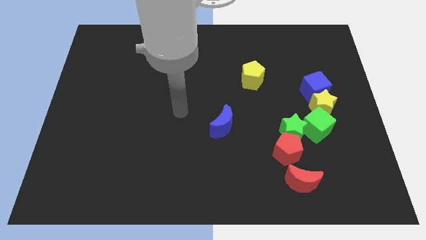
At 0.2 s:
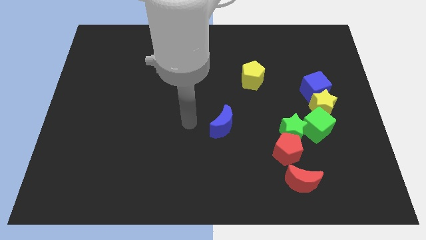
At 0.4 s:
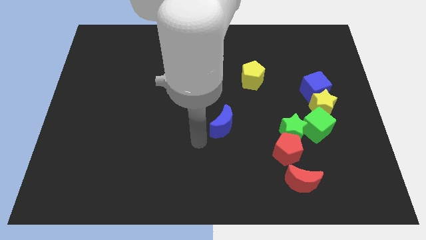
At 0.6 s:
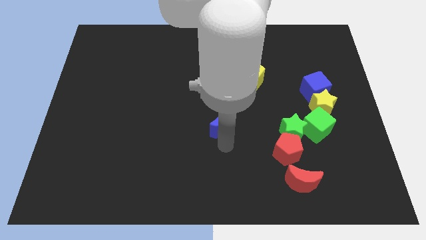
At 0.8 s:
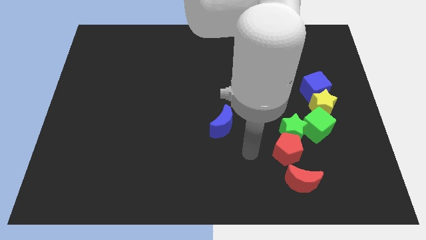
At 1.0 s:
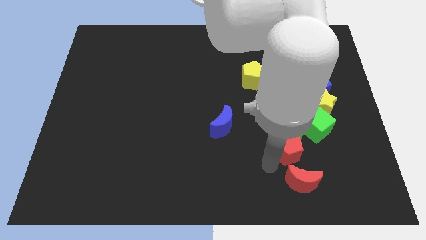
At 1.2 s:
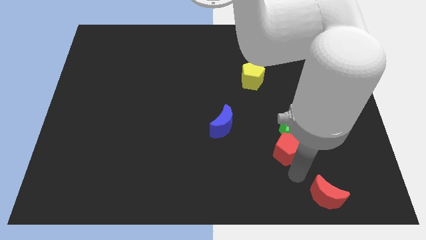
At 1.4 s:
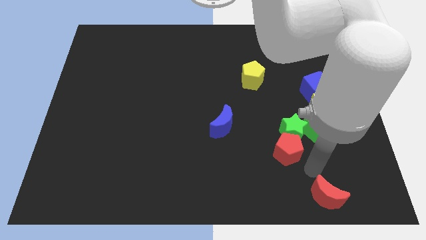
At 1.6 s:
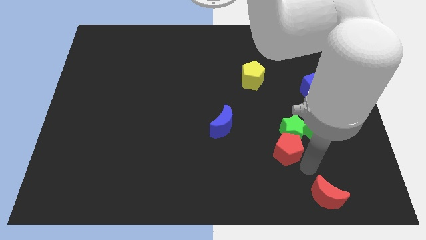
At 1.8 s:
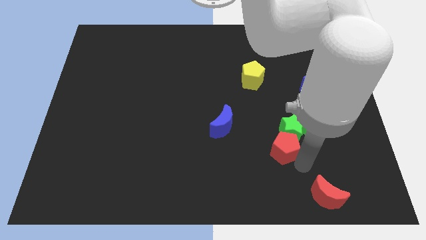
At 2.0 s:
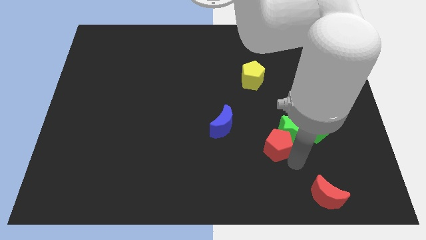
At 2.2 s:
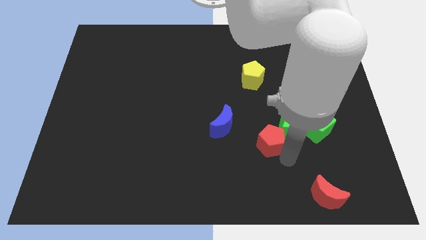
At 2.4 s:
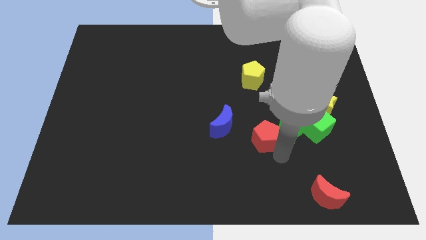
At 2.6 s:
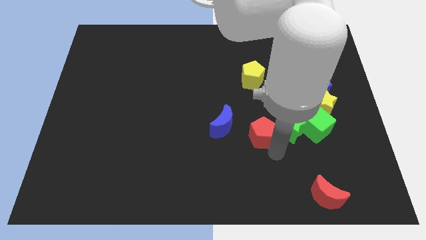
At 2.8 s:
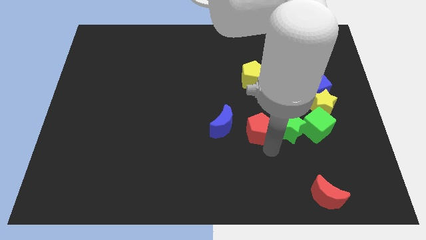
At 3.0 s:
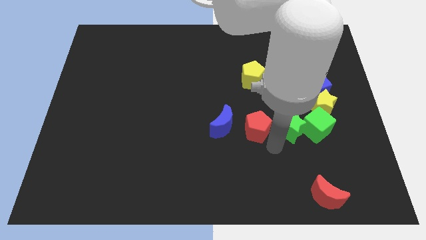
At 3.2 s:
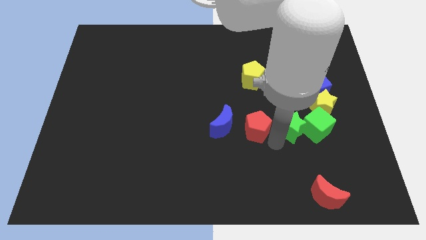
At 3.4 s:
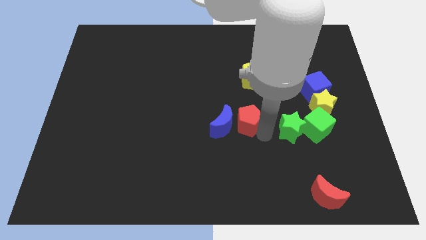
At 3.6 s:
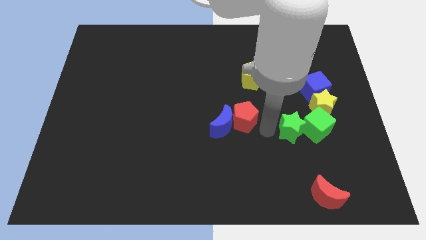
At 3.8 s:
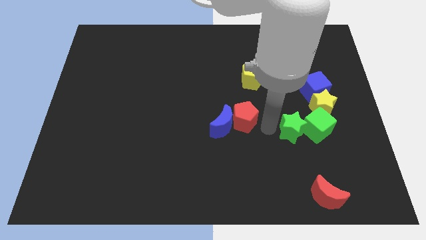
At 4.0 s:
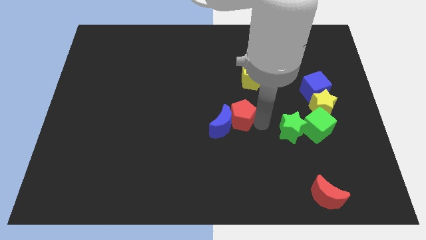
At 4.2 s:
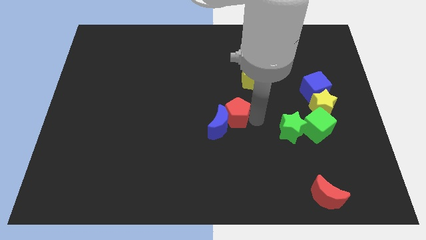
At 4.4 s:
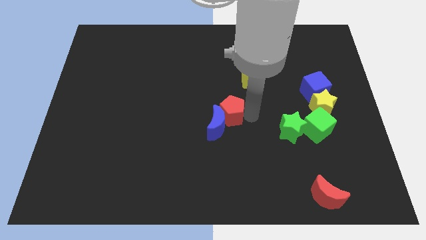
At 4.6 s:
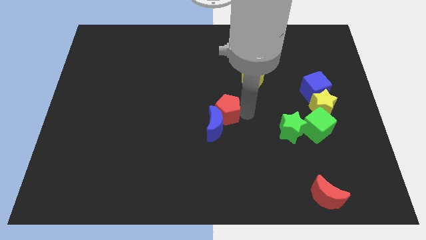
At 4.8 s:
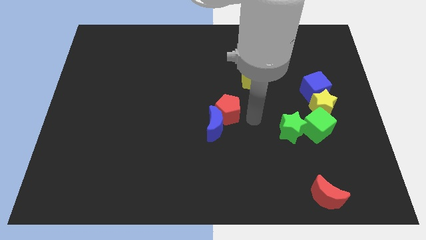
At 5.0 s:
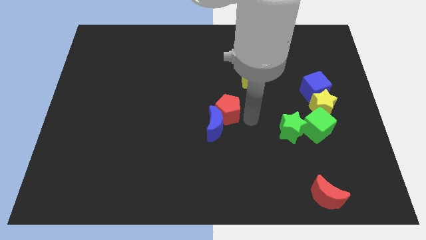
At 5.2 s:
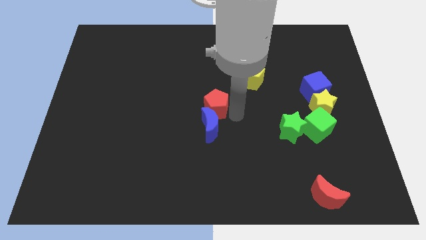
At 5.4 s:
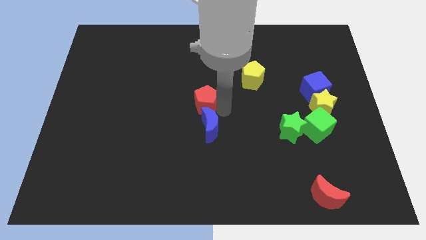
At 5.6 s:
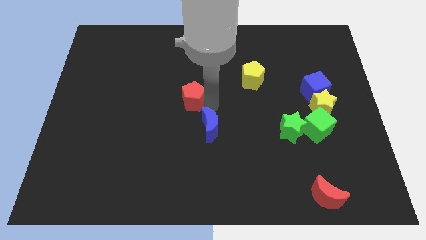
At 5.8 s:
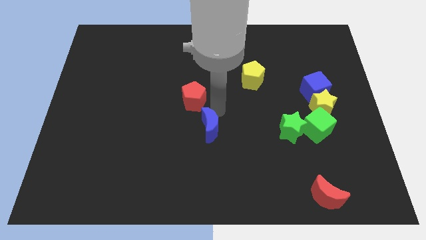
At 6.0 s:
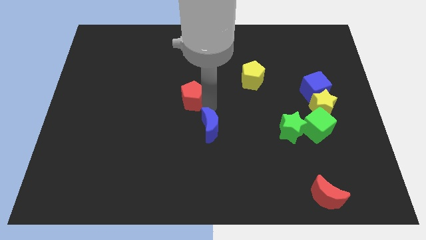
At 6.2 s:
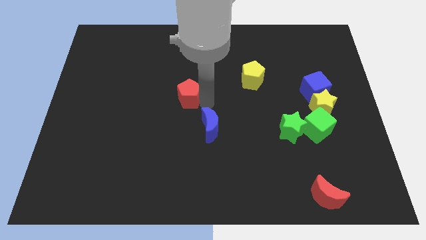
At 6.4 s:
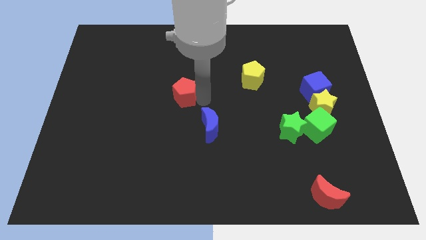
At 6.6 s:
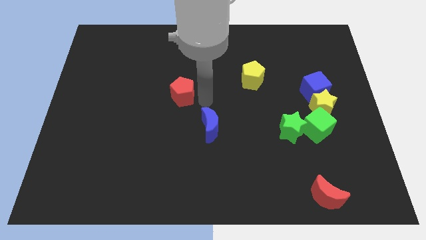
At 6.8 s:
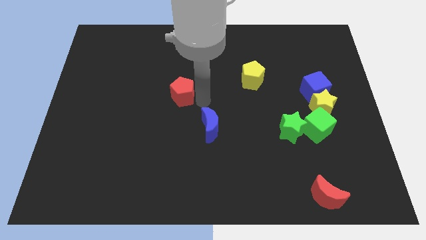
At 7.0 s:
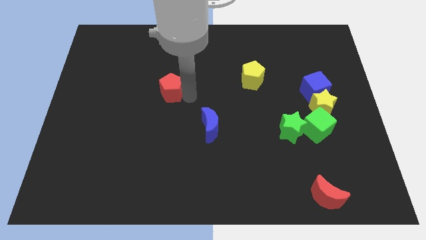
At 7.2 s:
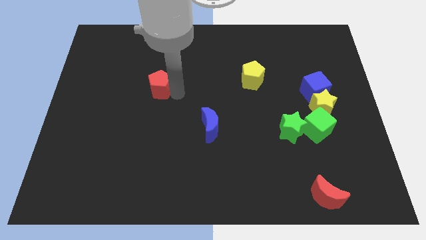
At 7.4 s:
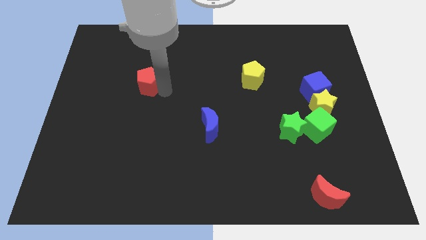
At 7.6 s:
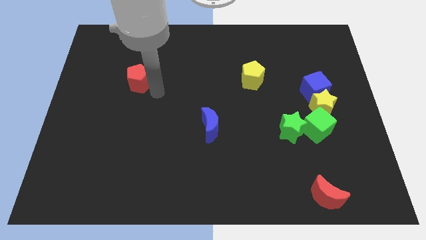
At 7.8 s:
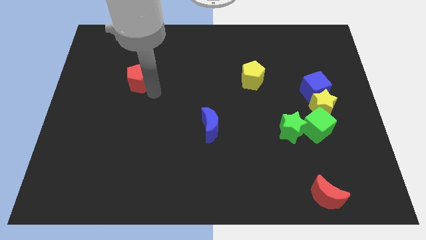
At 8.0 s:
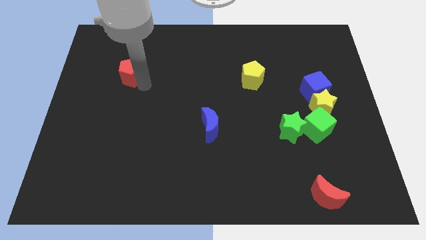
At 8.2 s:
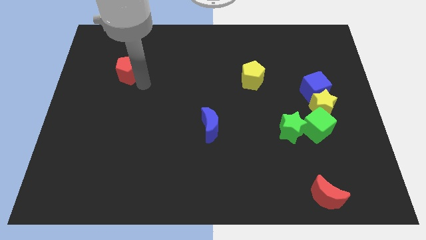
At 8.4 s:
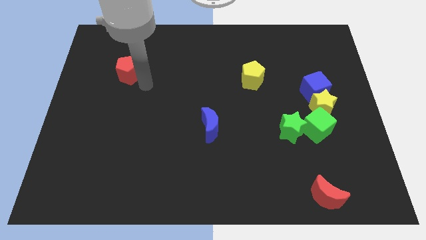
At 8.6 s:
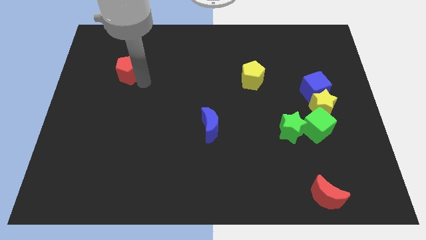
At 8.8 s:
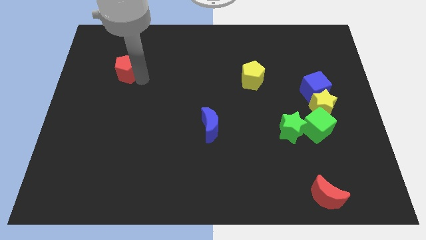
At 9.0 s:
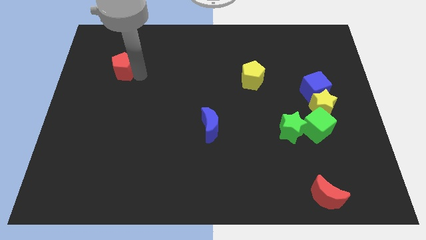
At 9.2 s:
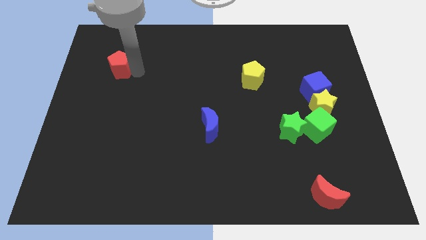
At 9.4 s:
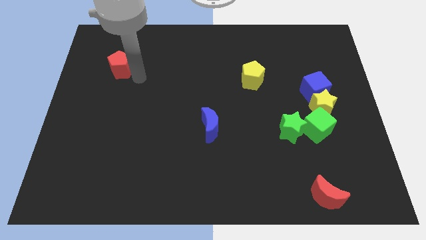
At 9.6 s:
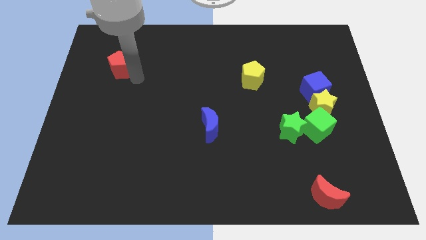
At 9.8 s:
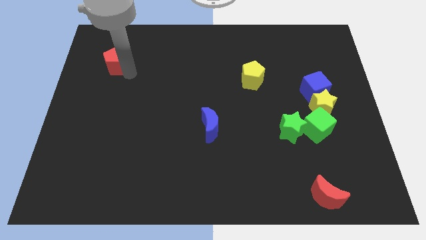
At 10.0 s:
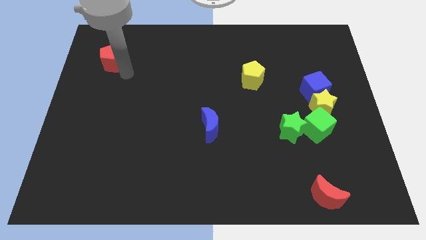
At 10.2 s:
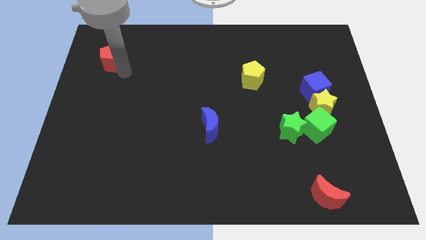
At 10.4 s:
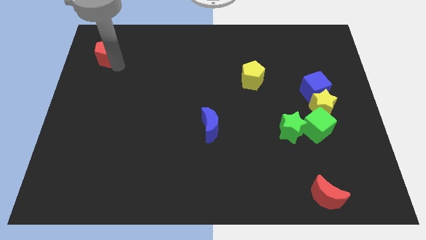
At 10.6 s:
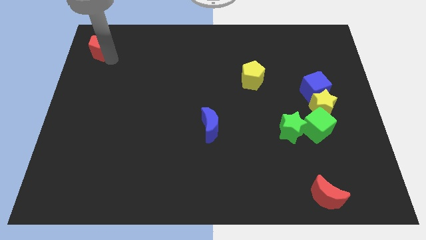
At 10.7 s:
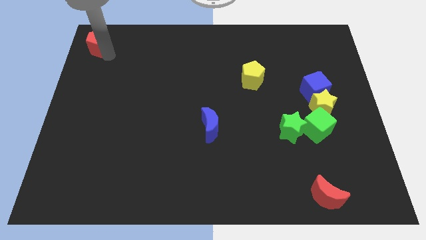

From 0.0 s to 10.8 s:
slide the red pentagon to the top left

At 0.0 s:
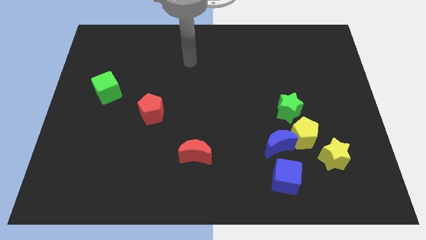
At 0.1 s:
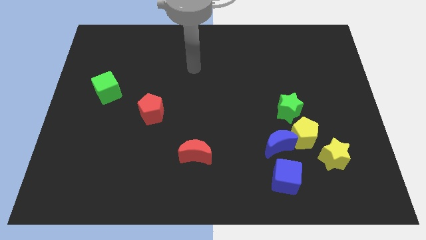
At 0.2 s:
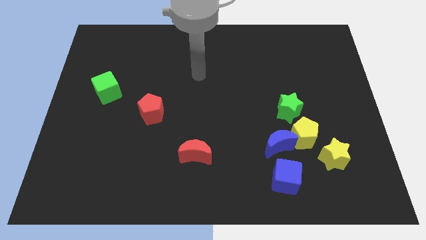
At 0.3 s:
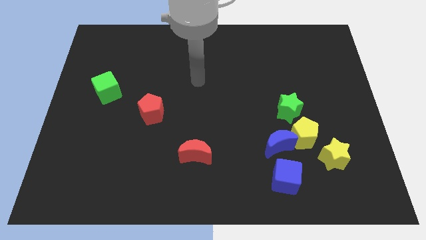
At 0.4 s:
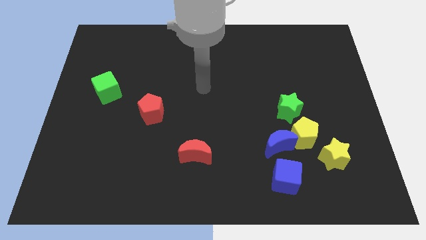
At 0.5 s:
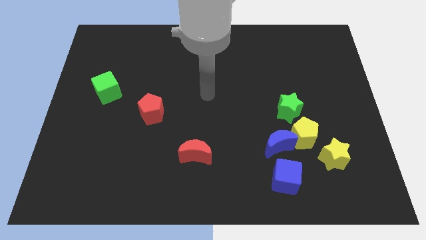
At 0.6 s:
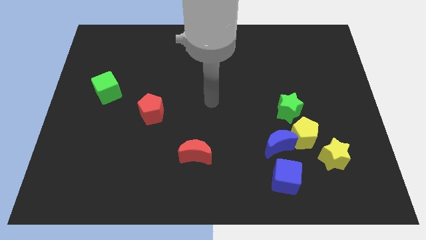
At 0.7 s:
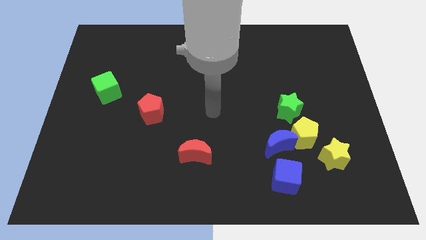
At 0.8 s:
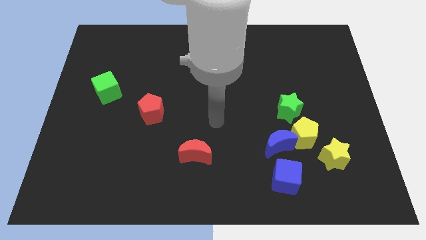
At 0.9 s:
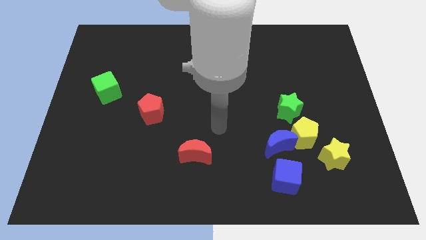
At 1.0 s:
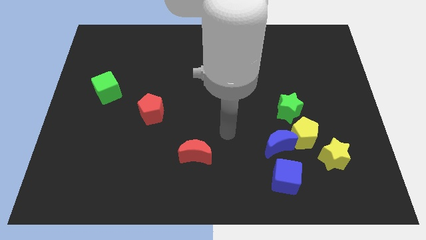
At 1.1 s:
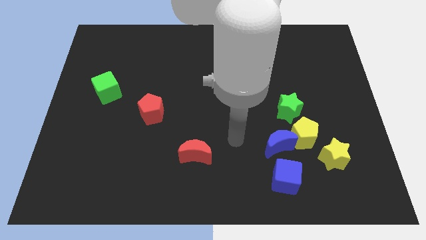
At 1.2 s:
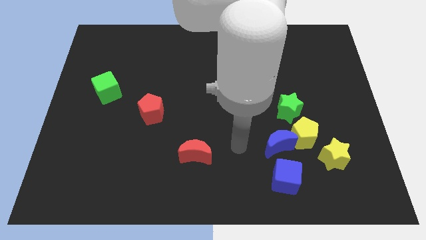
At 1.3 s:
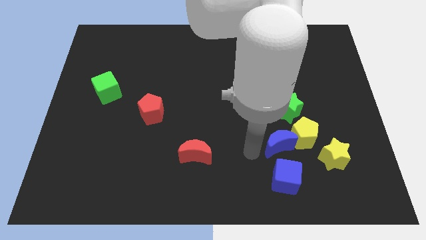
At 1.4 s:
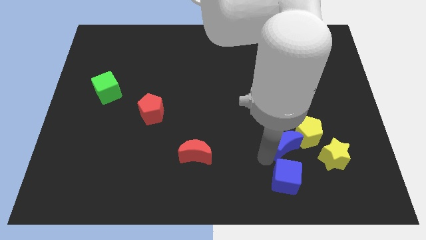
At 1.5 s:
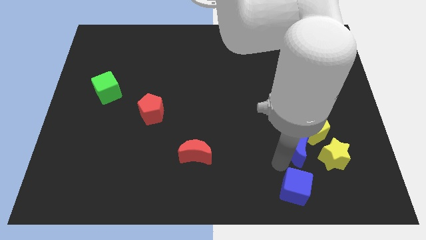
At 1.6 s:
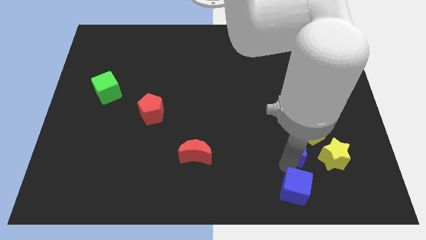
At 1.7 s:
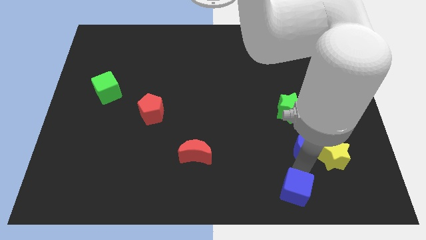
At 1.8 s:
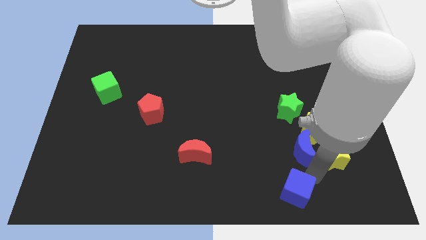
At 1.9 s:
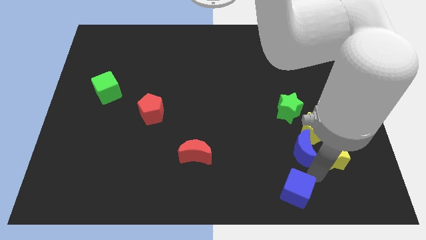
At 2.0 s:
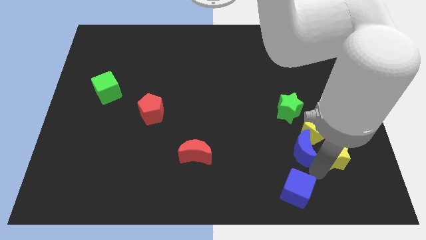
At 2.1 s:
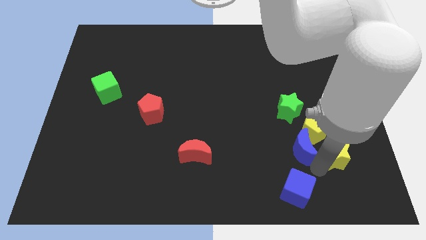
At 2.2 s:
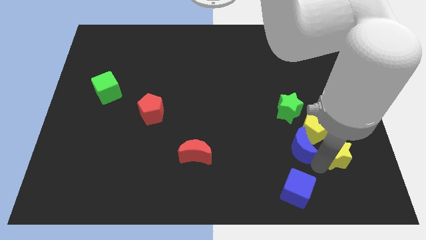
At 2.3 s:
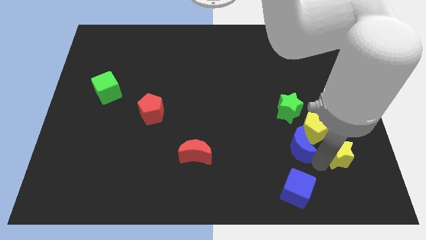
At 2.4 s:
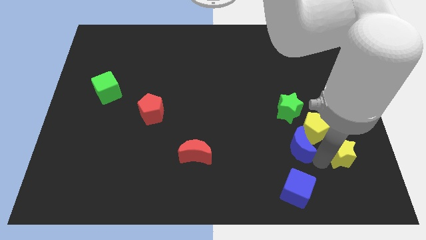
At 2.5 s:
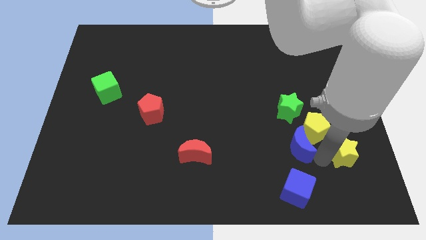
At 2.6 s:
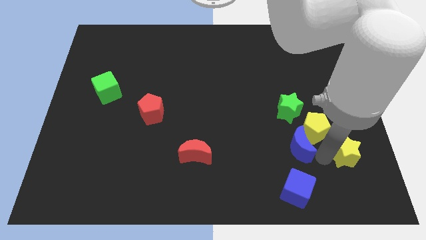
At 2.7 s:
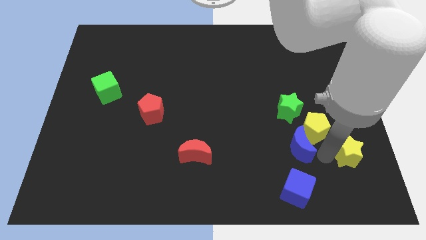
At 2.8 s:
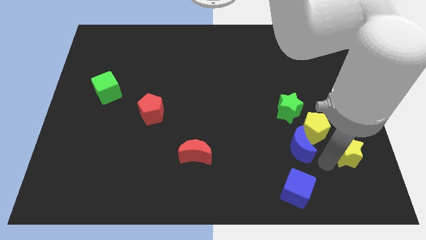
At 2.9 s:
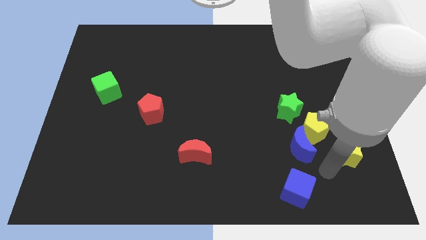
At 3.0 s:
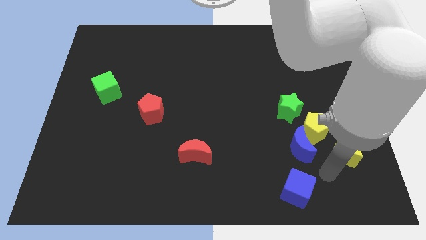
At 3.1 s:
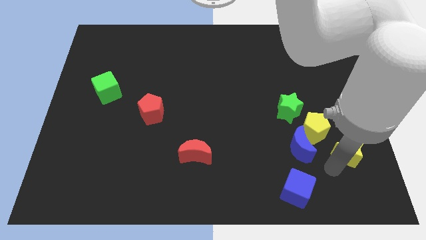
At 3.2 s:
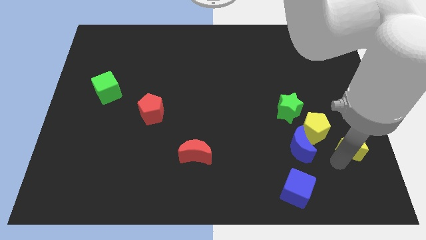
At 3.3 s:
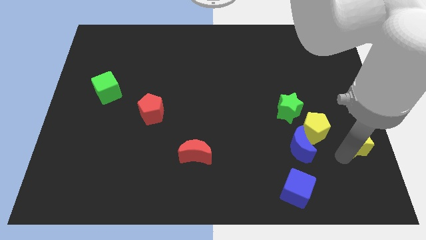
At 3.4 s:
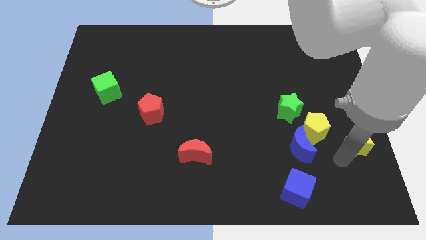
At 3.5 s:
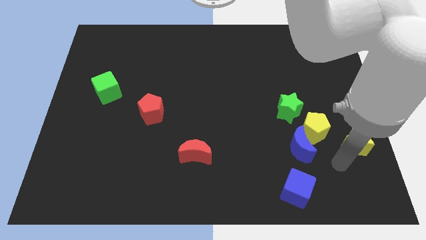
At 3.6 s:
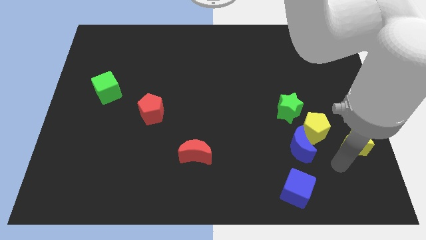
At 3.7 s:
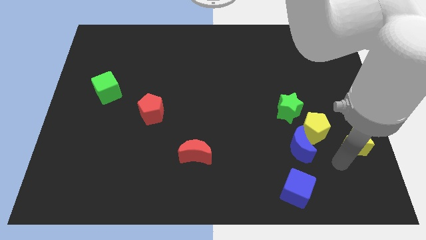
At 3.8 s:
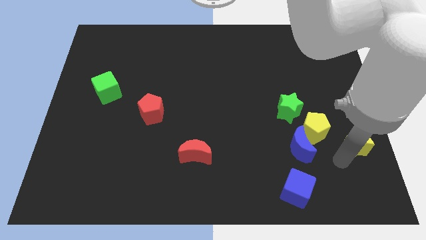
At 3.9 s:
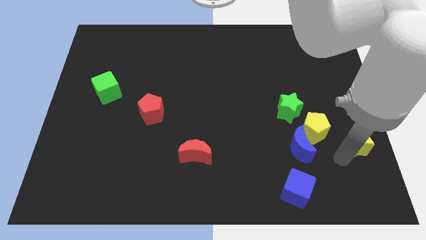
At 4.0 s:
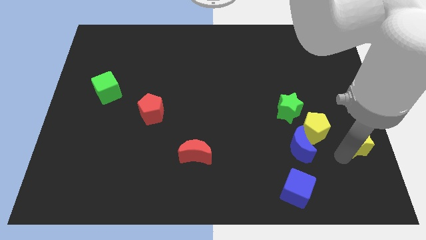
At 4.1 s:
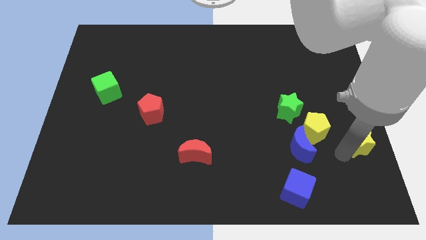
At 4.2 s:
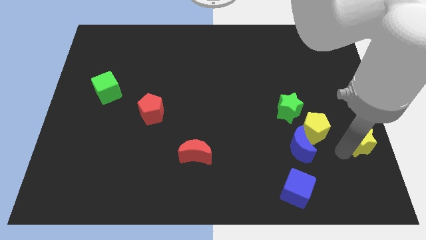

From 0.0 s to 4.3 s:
move the yellow star to the center right
